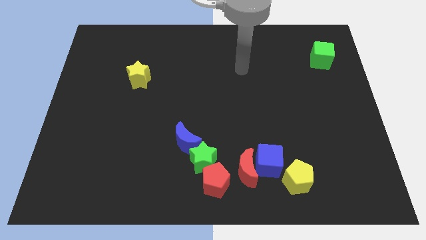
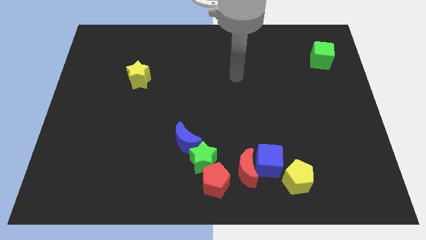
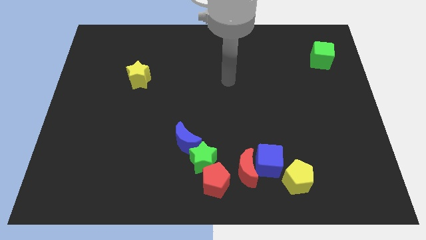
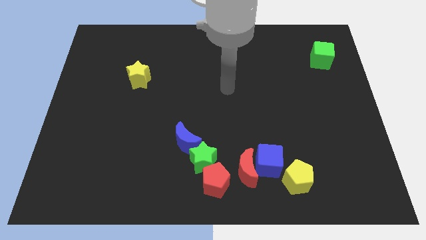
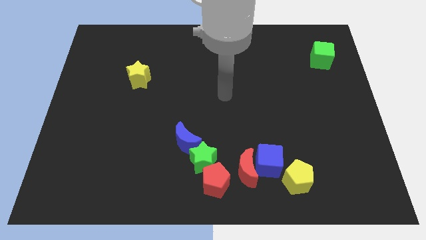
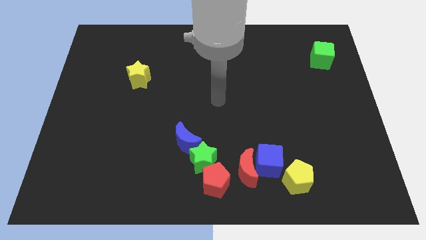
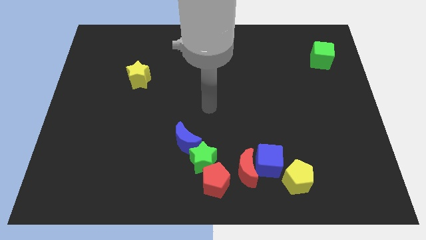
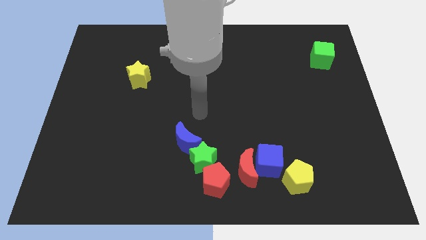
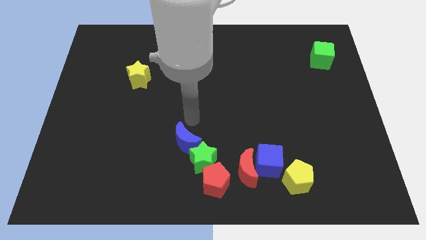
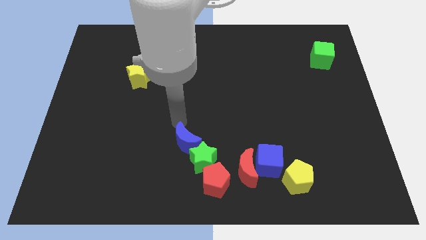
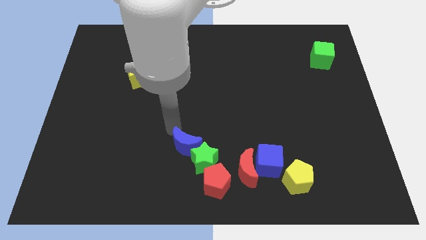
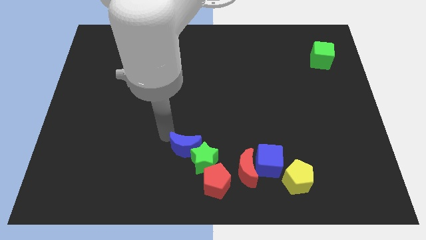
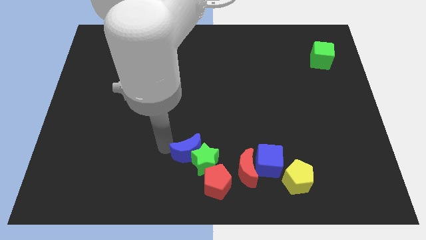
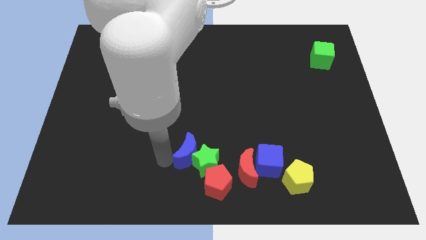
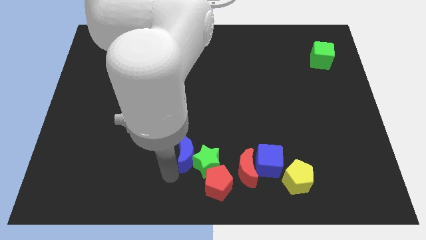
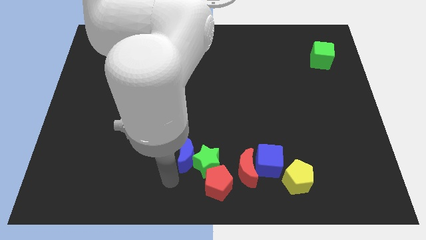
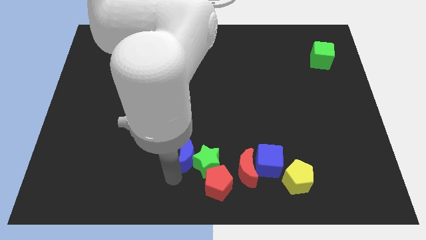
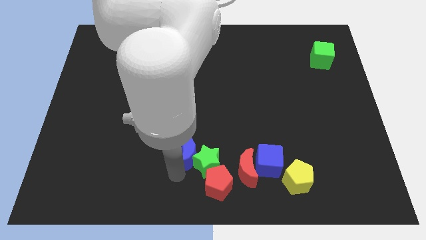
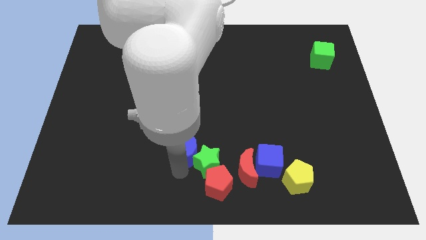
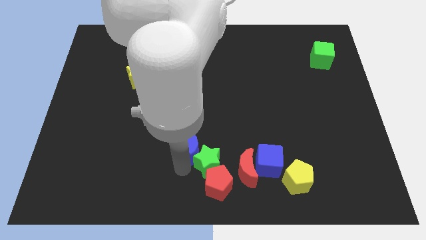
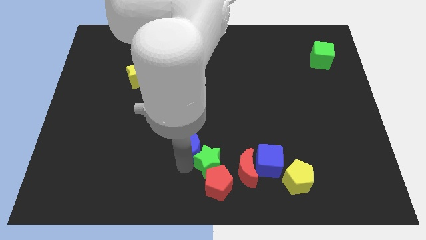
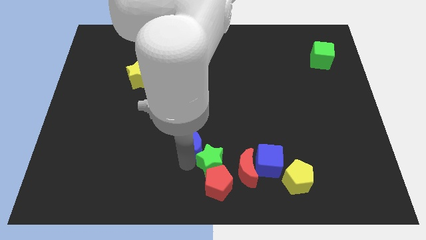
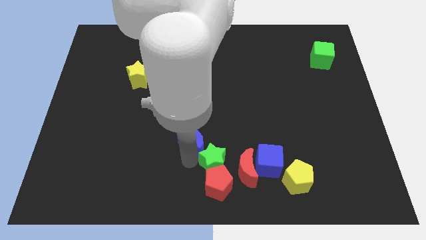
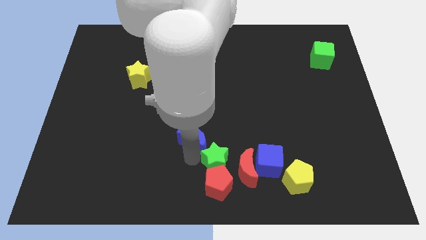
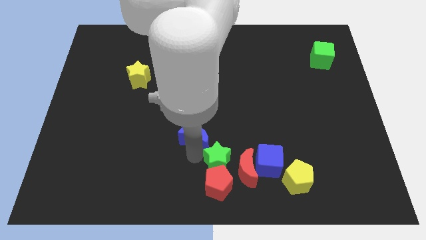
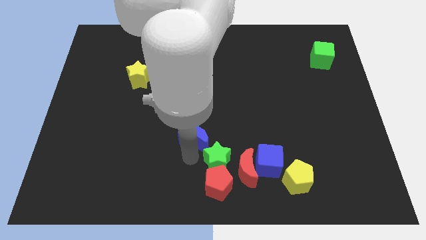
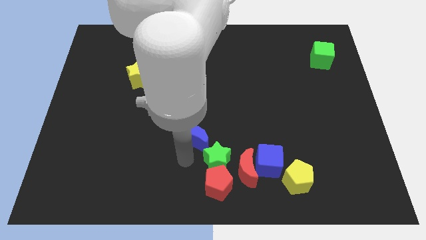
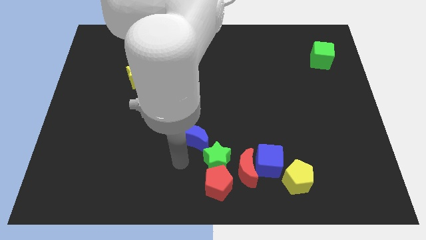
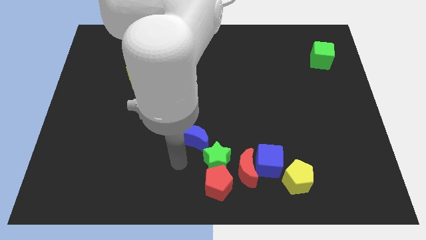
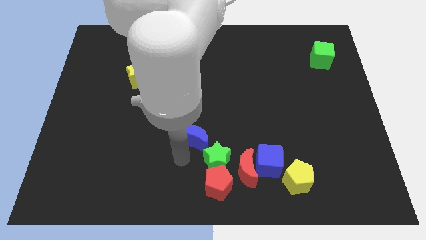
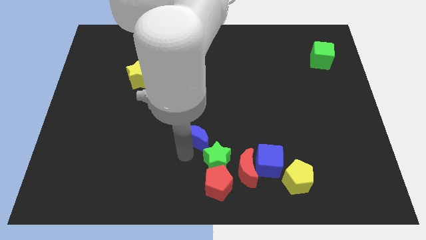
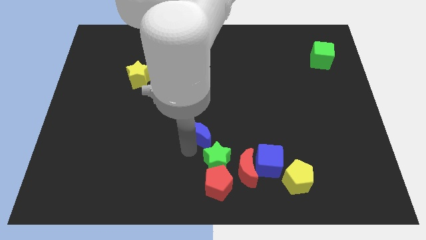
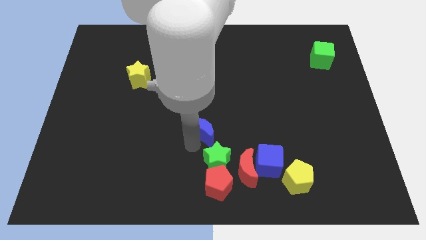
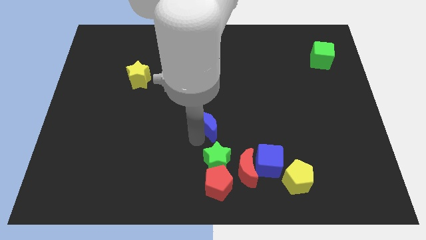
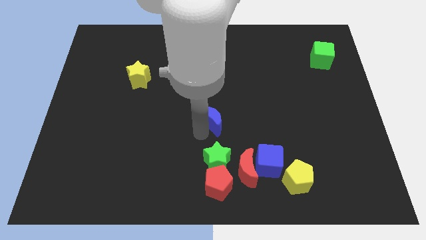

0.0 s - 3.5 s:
slightly push the blue moon diagonally up and to the right

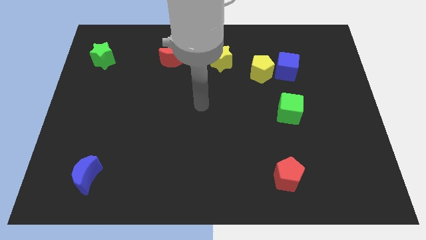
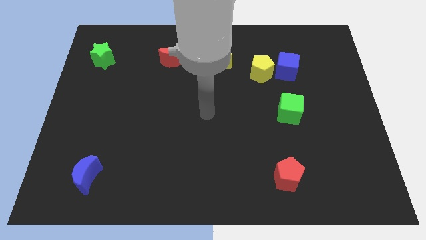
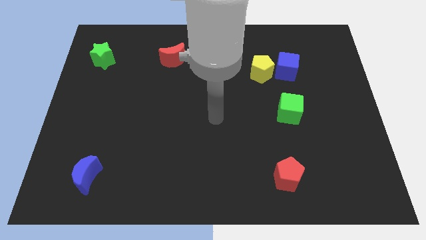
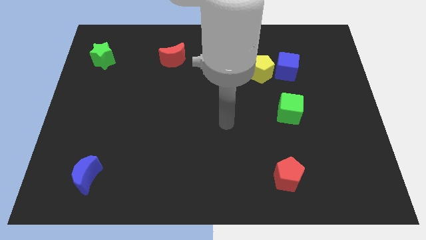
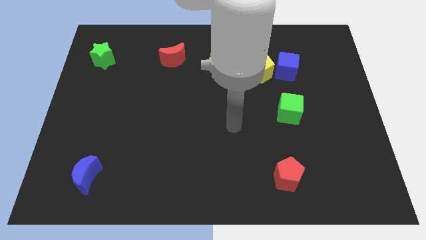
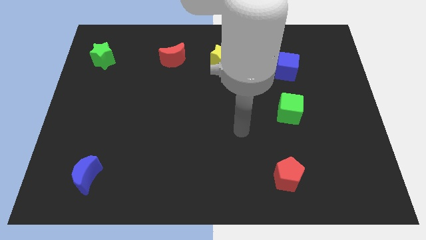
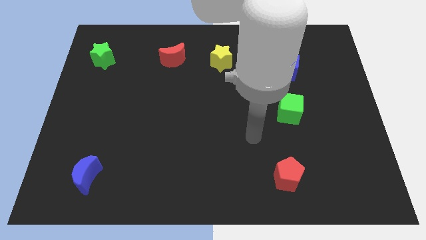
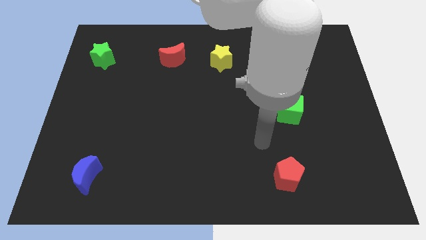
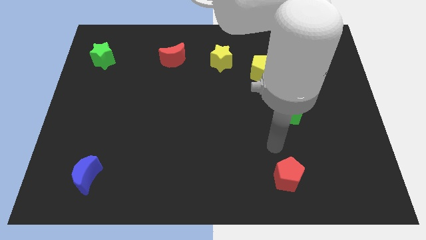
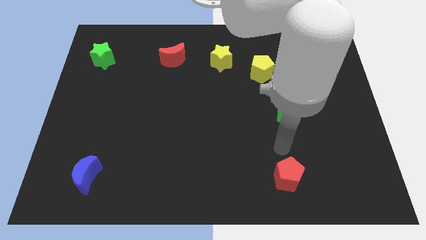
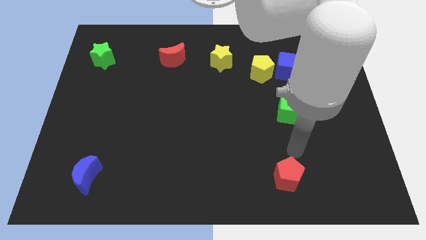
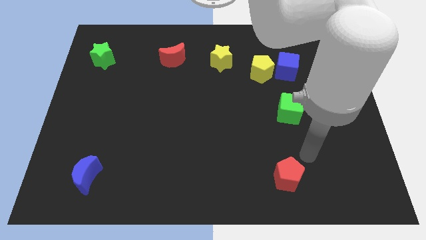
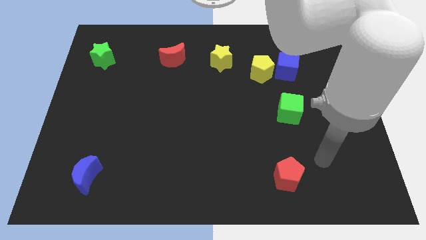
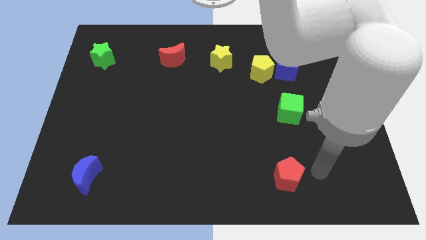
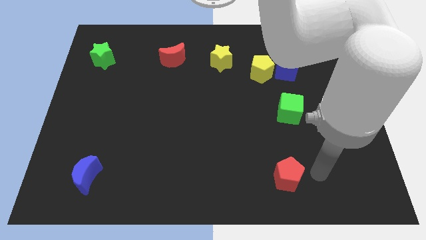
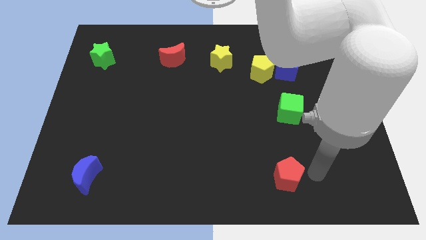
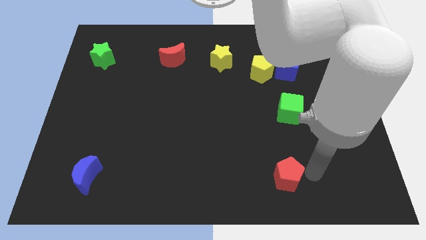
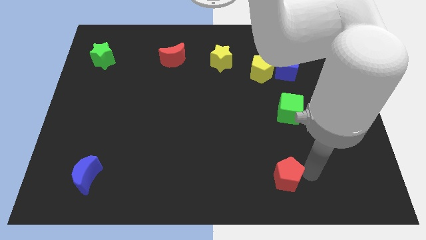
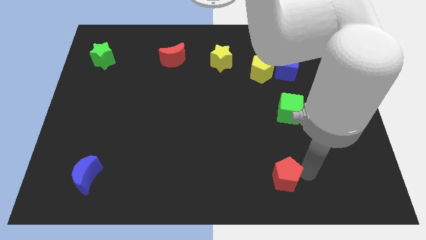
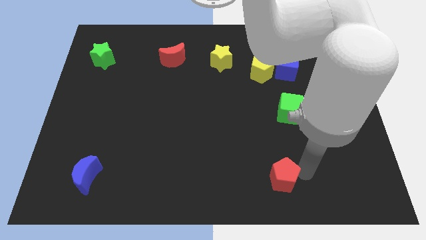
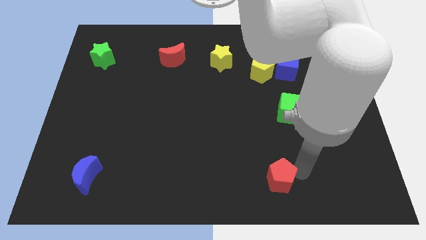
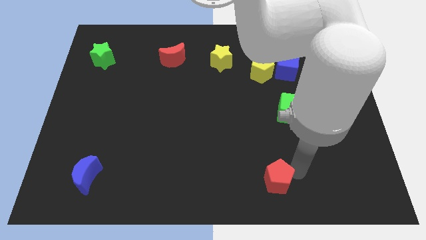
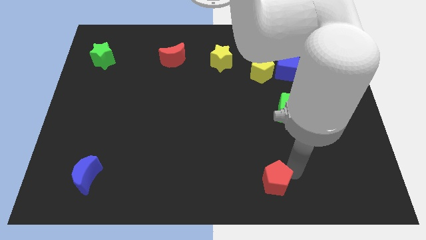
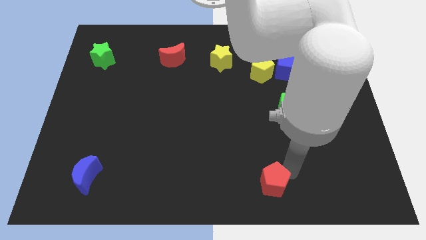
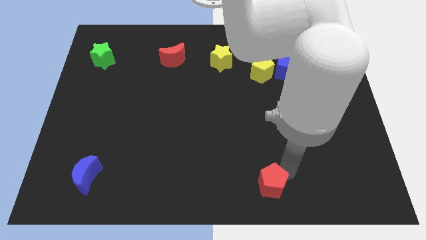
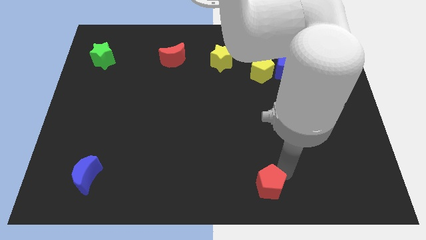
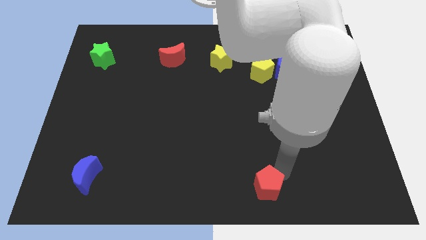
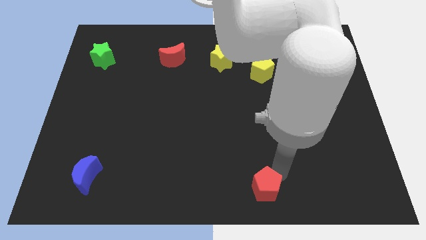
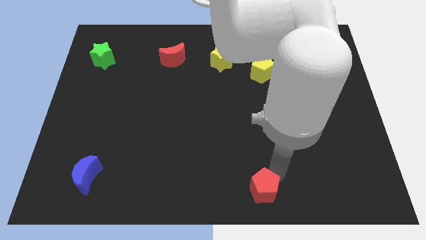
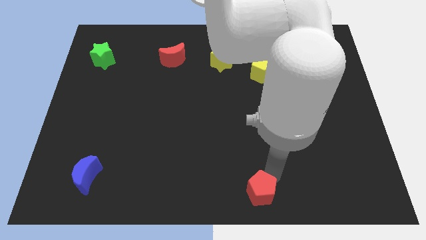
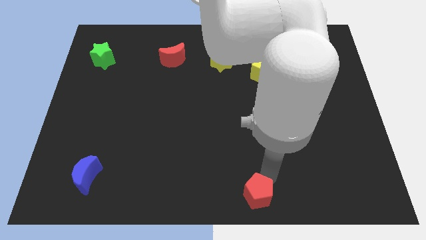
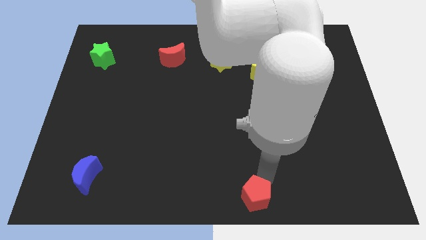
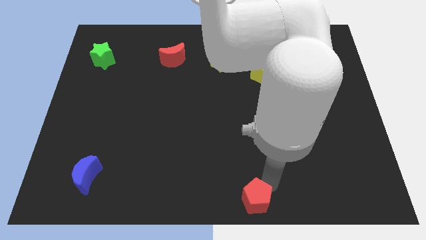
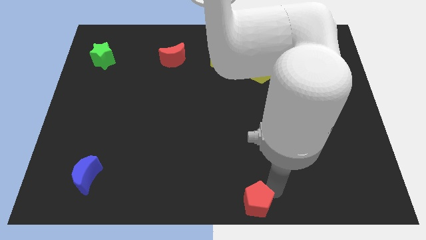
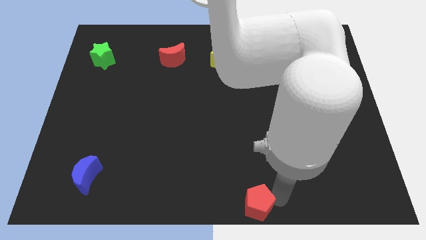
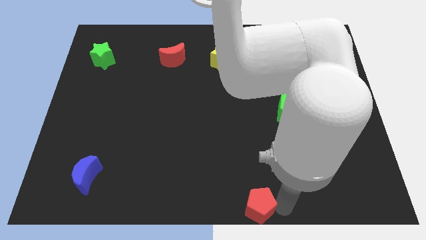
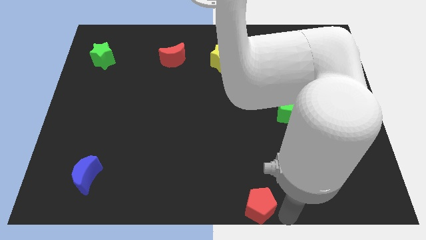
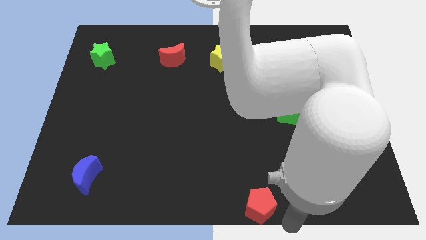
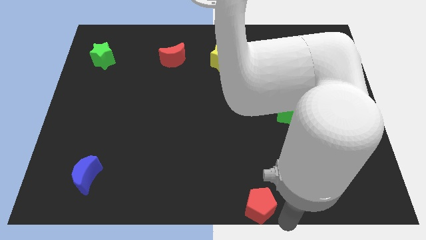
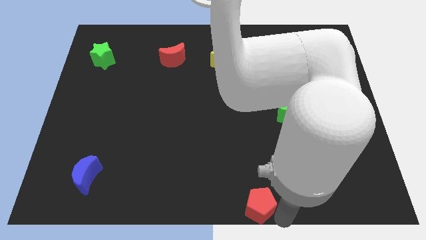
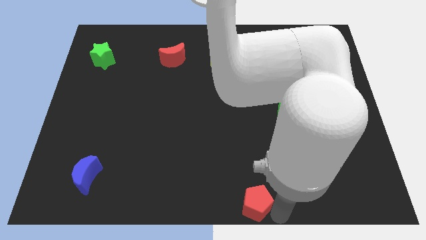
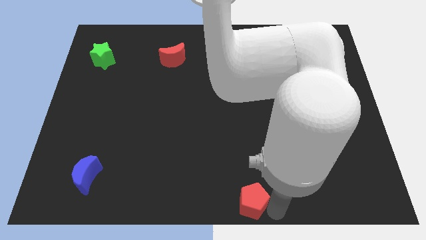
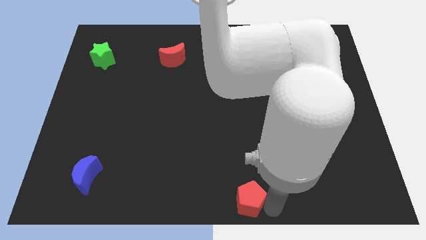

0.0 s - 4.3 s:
push the red pentagon slightly to the left

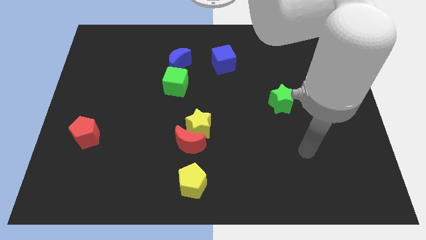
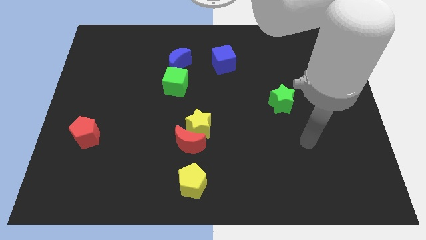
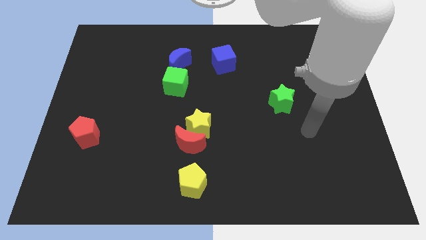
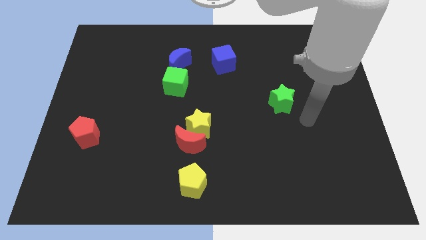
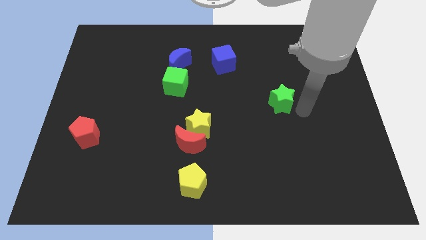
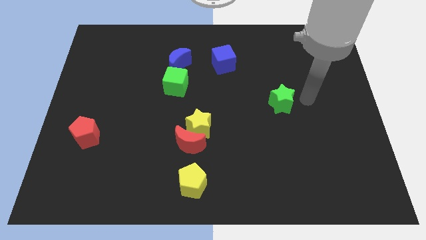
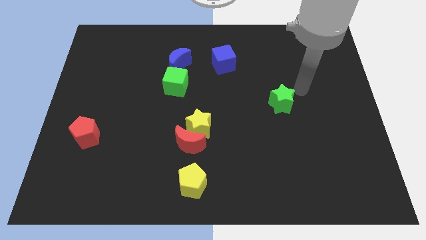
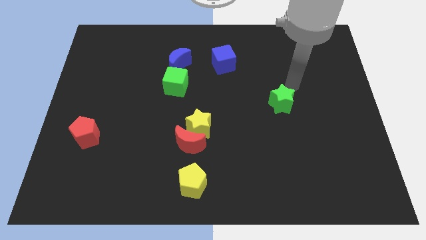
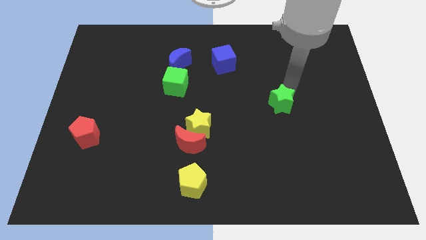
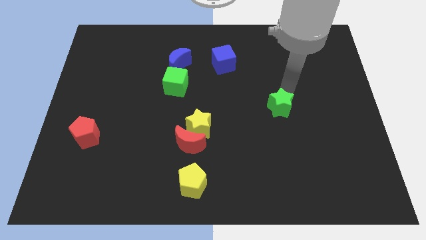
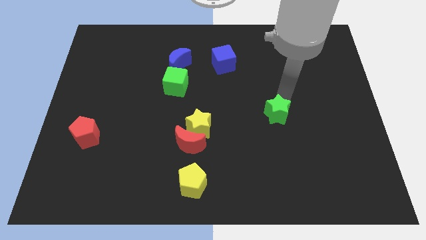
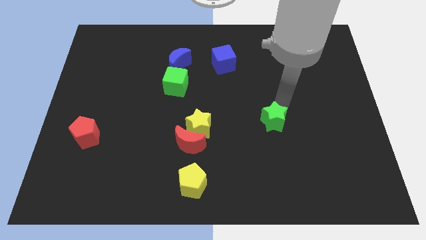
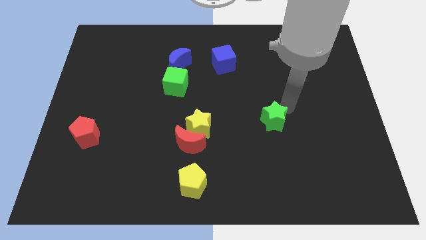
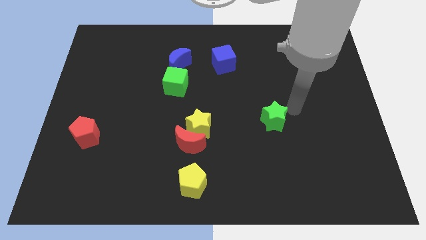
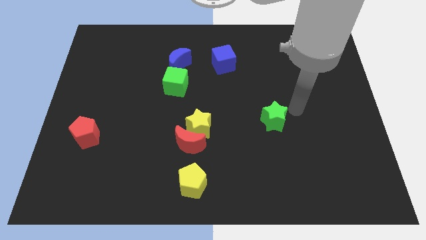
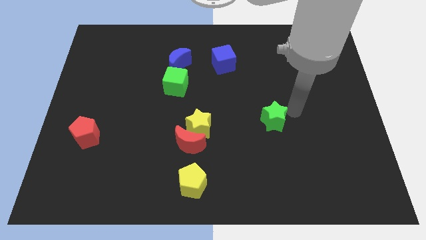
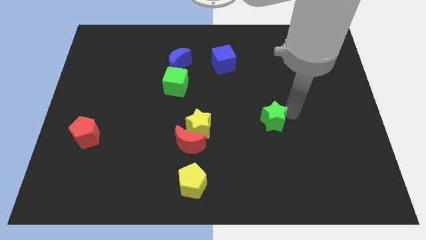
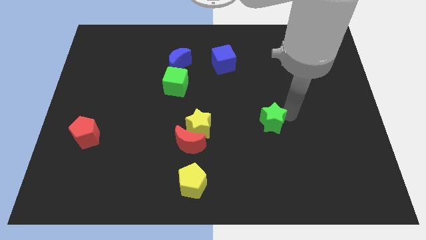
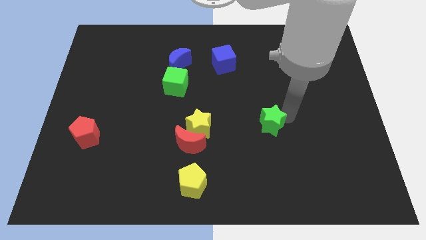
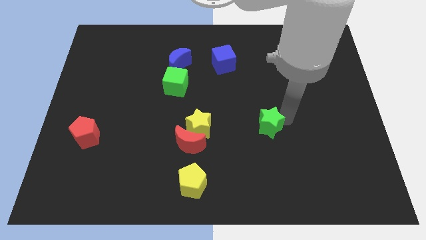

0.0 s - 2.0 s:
push the green star downwards and left diagonally slightly
